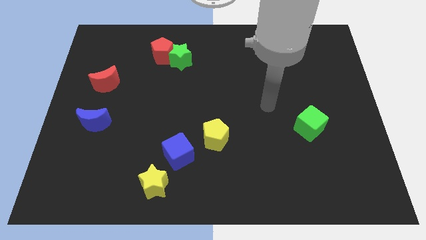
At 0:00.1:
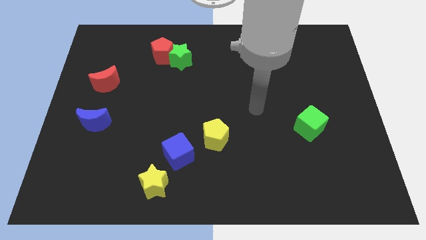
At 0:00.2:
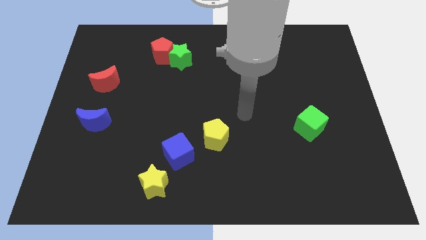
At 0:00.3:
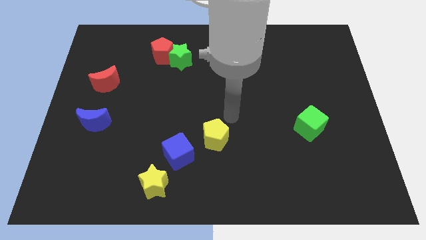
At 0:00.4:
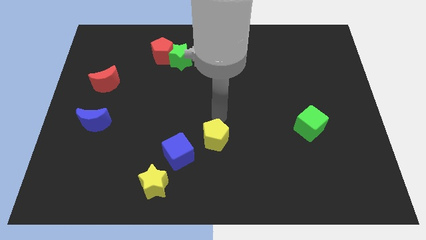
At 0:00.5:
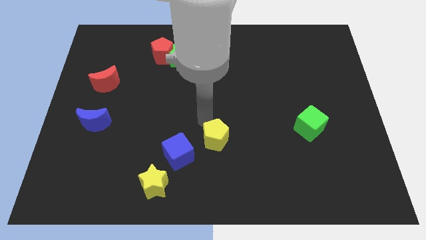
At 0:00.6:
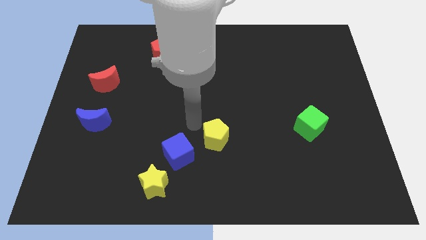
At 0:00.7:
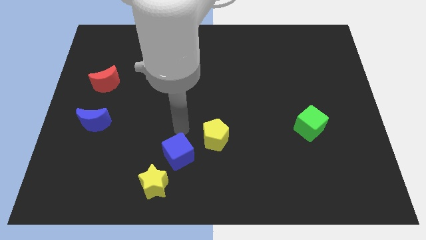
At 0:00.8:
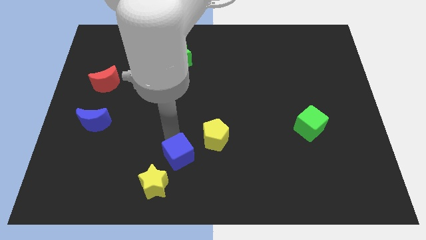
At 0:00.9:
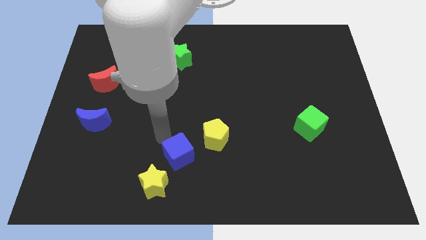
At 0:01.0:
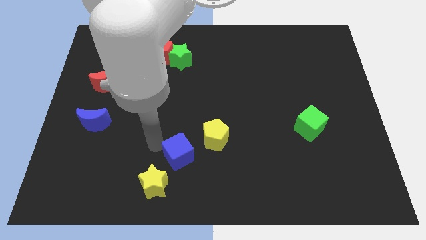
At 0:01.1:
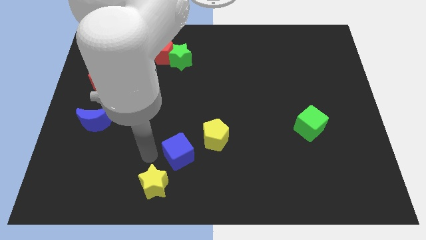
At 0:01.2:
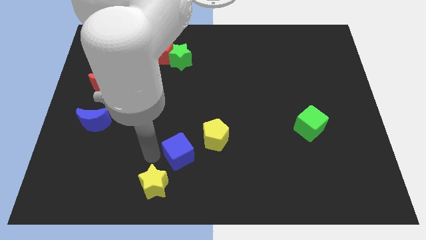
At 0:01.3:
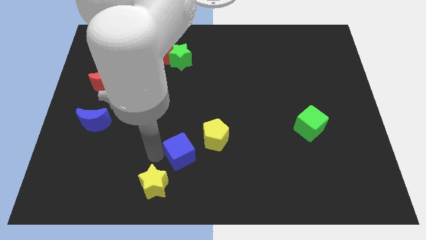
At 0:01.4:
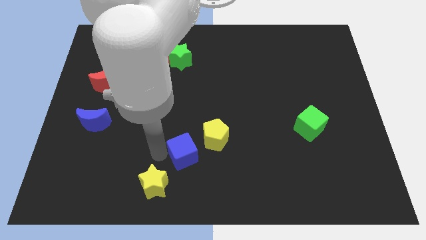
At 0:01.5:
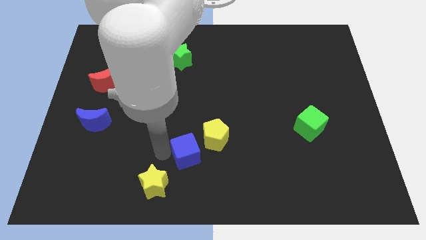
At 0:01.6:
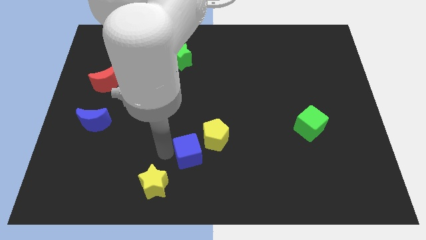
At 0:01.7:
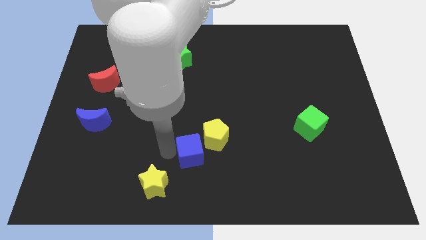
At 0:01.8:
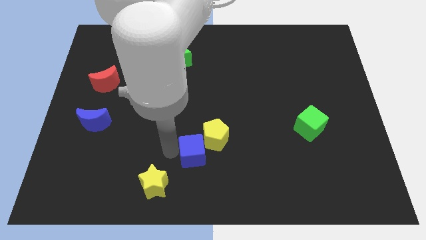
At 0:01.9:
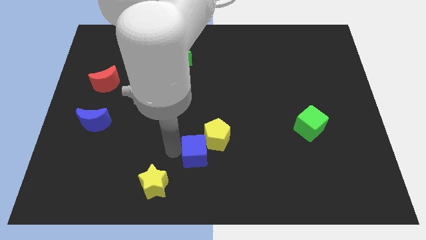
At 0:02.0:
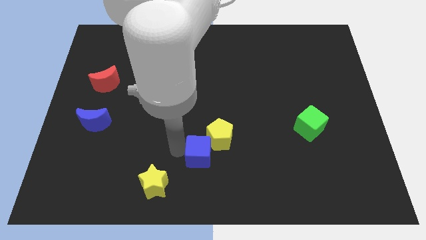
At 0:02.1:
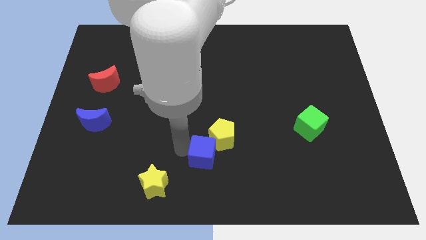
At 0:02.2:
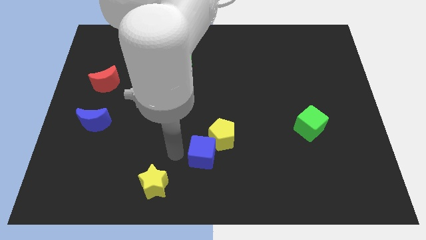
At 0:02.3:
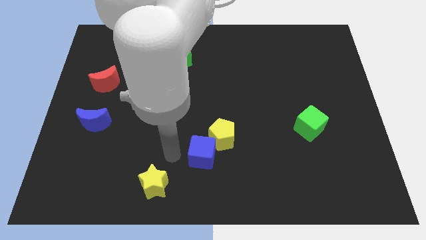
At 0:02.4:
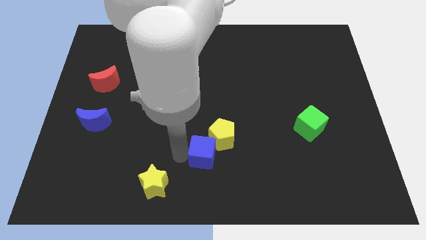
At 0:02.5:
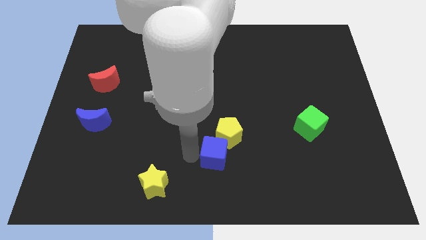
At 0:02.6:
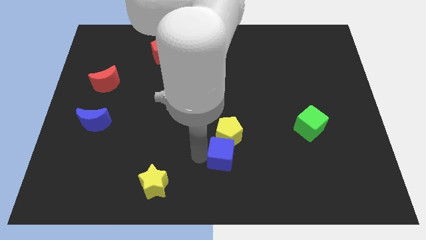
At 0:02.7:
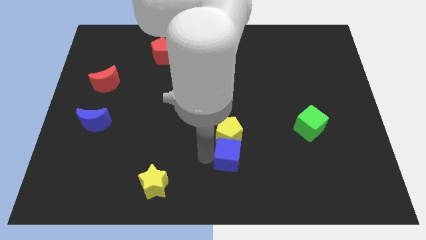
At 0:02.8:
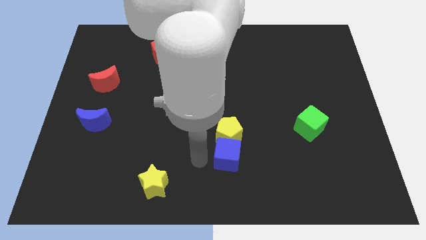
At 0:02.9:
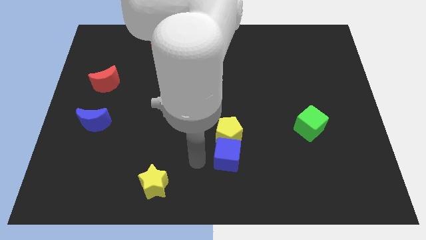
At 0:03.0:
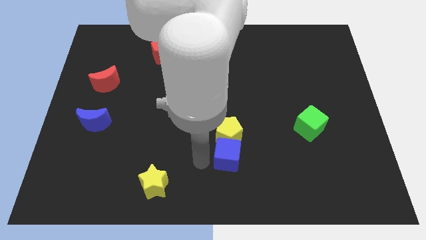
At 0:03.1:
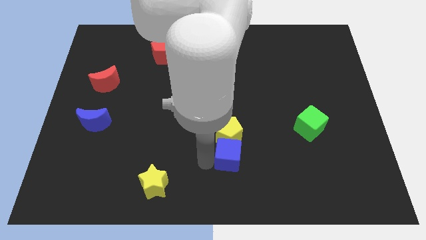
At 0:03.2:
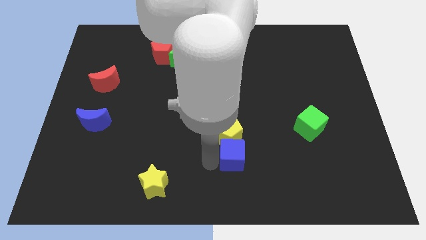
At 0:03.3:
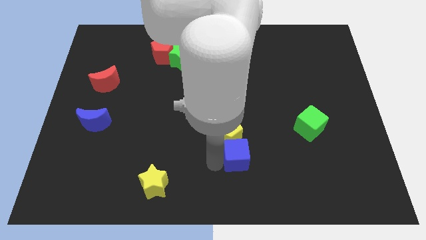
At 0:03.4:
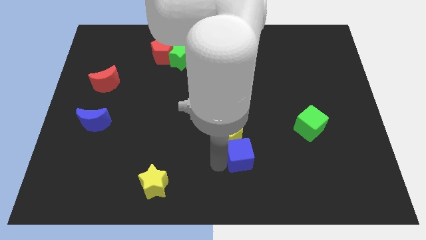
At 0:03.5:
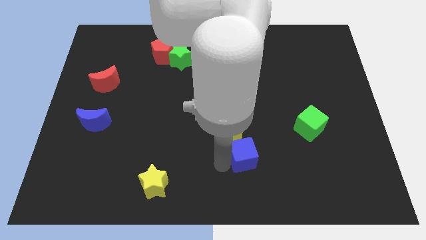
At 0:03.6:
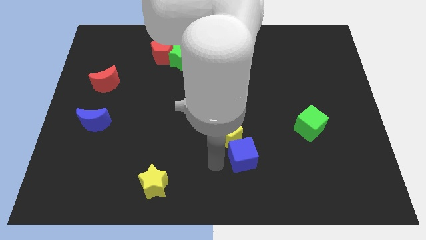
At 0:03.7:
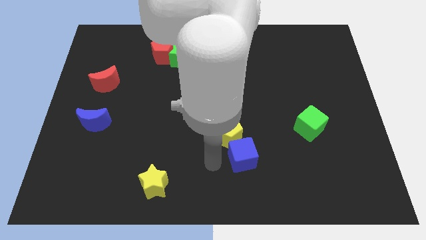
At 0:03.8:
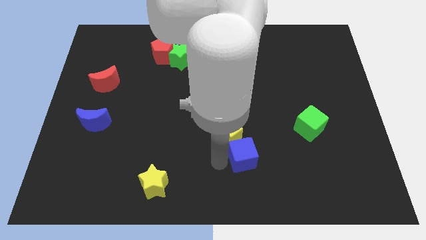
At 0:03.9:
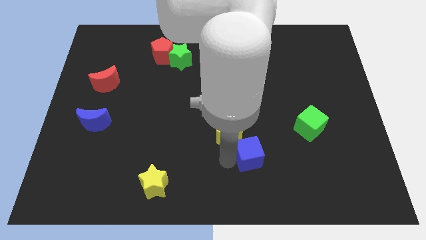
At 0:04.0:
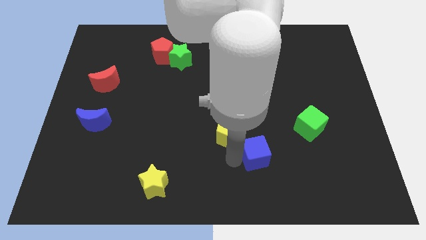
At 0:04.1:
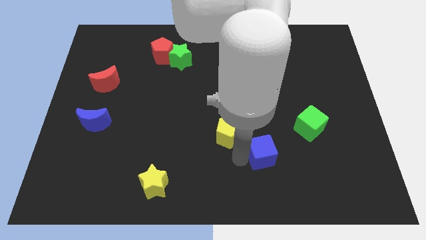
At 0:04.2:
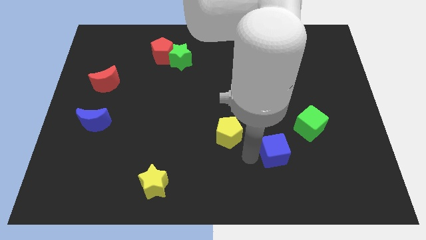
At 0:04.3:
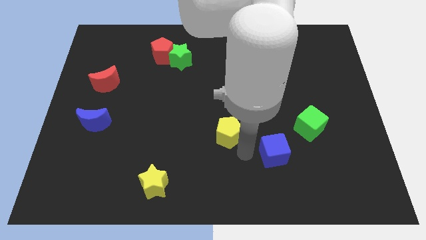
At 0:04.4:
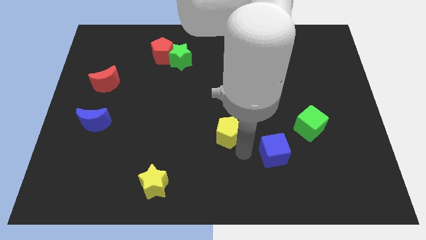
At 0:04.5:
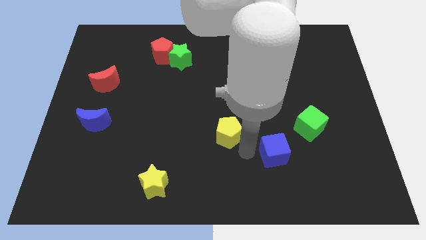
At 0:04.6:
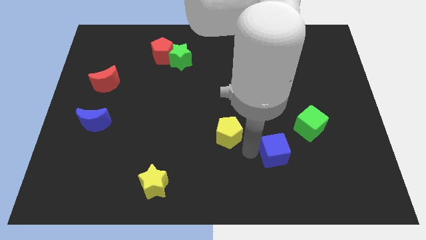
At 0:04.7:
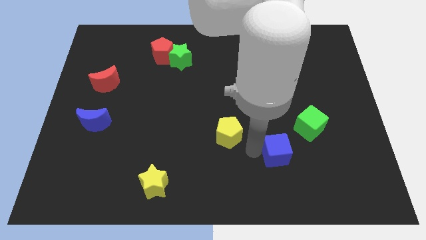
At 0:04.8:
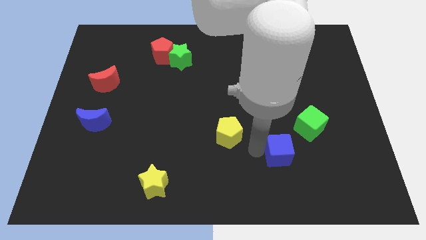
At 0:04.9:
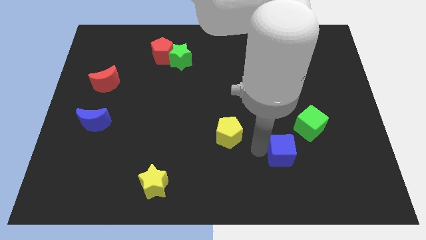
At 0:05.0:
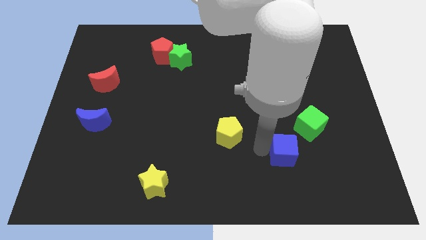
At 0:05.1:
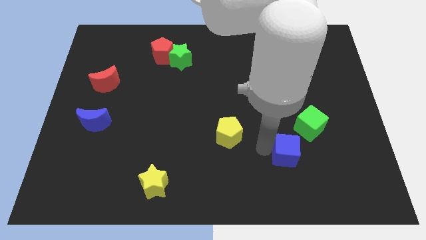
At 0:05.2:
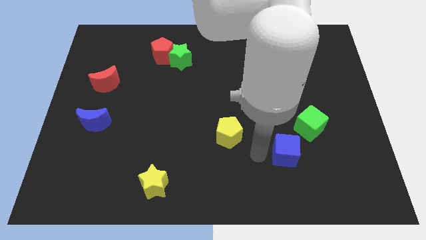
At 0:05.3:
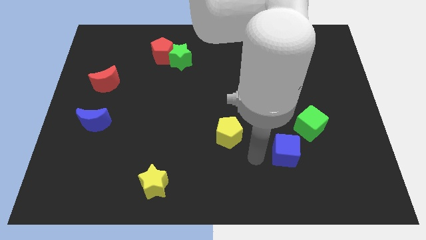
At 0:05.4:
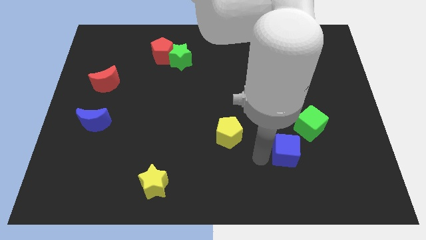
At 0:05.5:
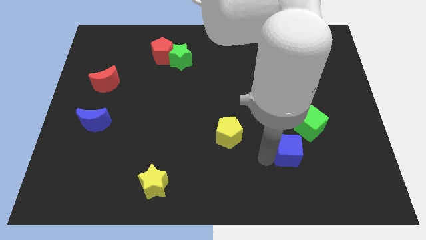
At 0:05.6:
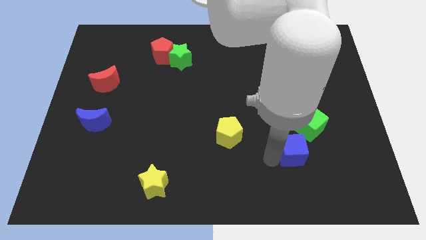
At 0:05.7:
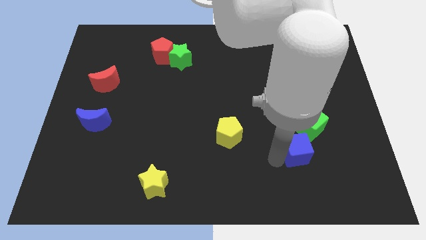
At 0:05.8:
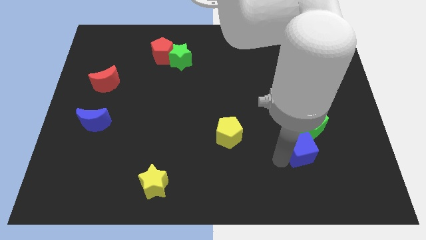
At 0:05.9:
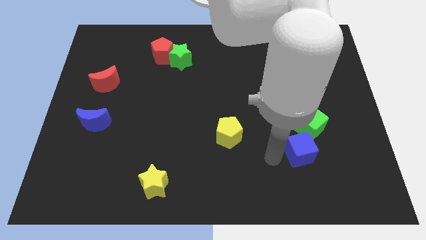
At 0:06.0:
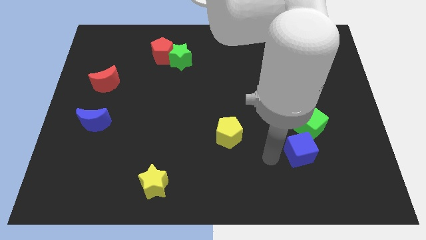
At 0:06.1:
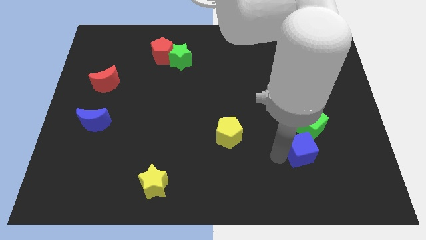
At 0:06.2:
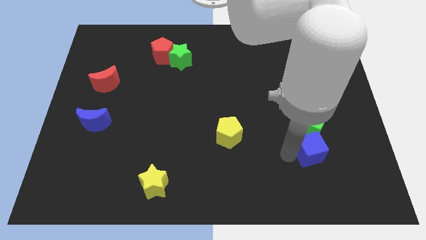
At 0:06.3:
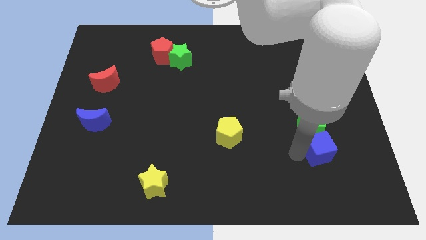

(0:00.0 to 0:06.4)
push the blue cube to the bottom right side of the green cube
